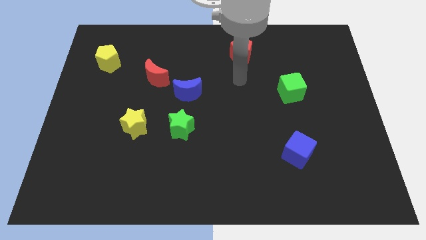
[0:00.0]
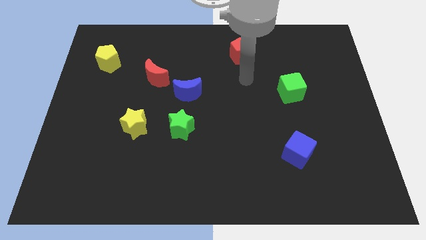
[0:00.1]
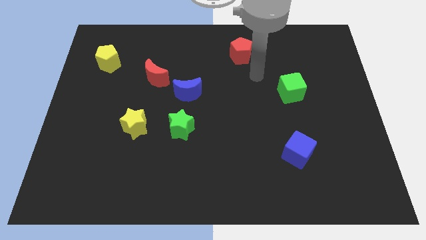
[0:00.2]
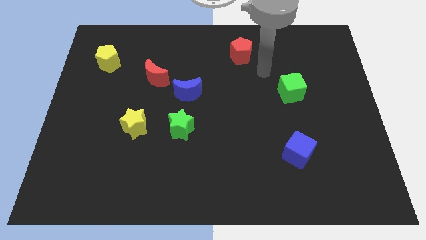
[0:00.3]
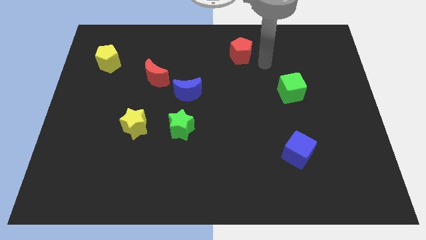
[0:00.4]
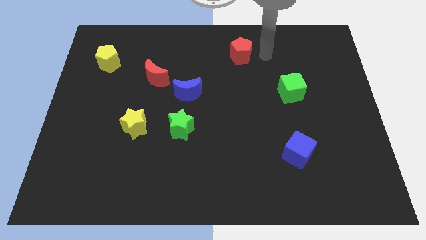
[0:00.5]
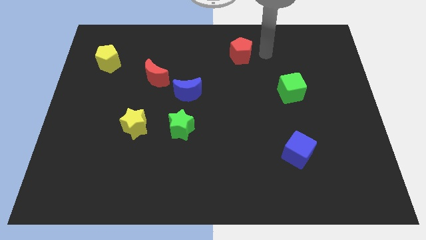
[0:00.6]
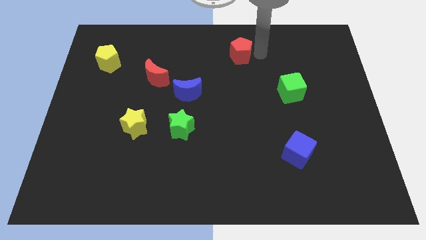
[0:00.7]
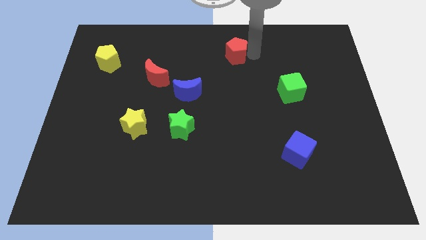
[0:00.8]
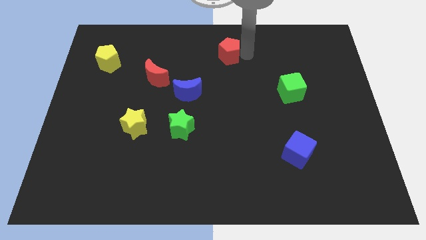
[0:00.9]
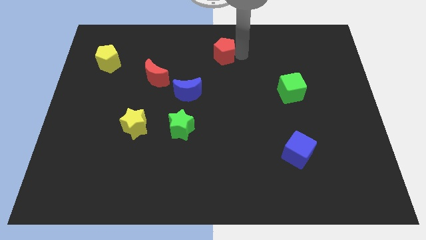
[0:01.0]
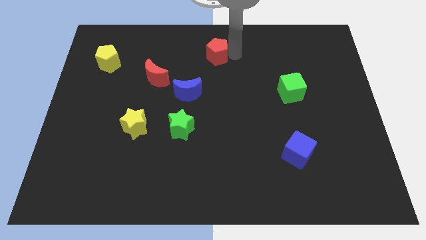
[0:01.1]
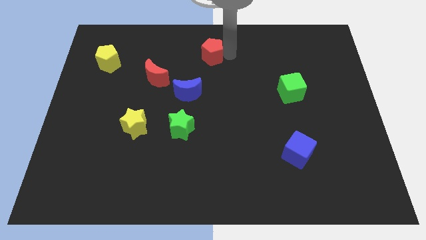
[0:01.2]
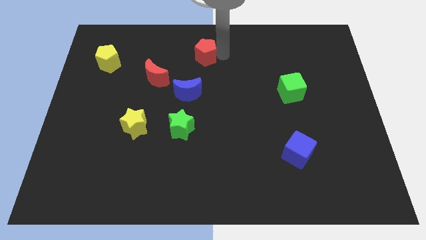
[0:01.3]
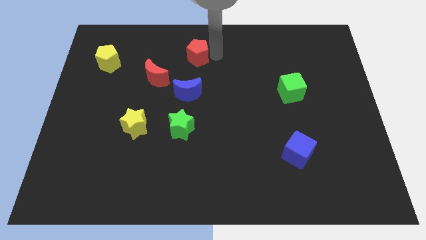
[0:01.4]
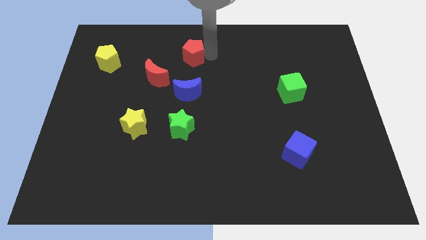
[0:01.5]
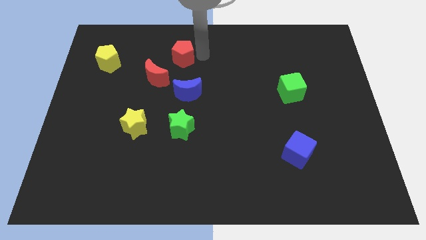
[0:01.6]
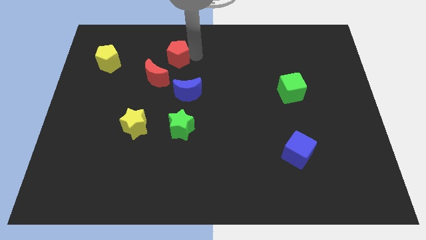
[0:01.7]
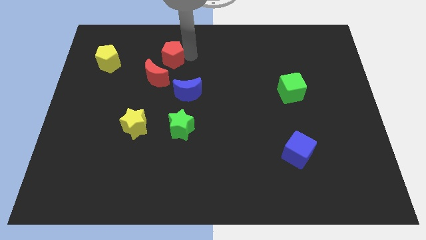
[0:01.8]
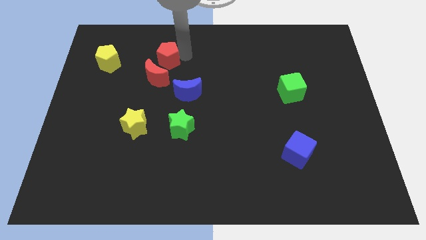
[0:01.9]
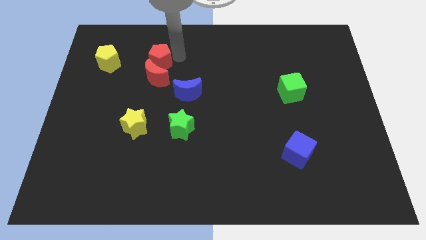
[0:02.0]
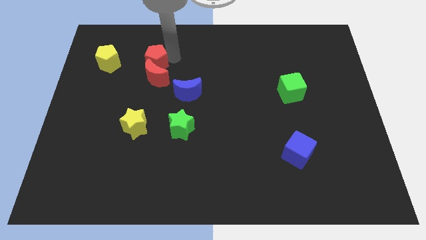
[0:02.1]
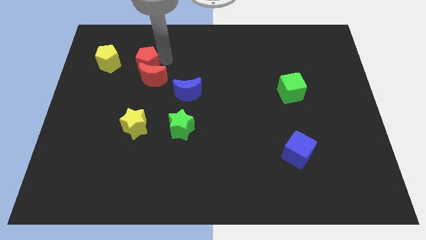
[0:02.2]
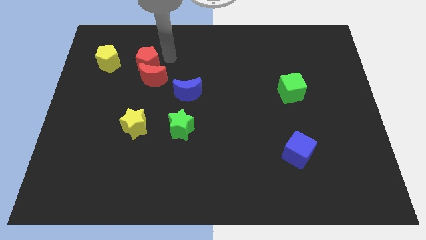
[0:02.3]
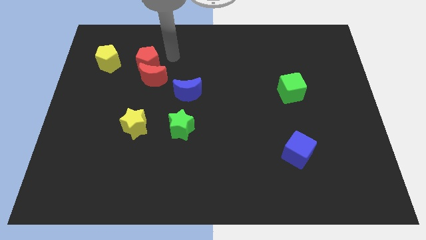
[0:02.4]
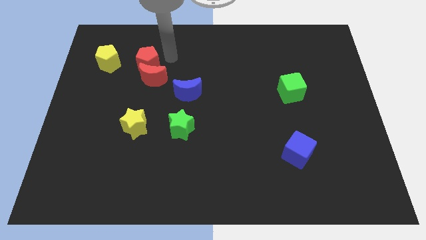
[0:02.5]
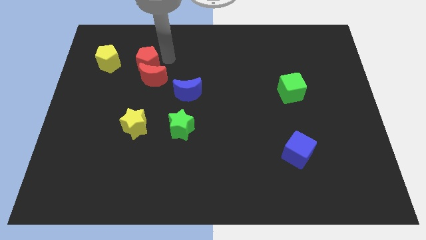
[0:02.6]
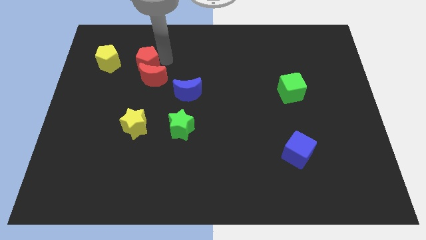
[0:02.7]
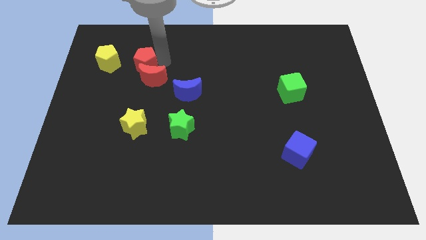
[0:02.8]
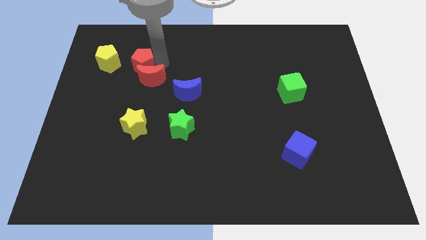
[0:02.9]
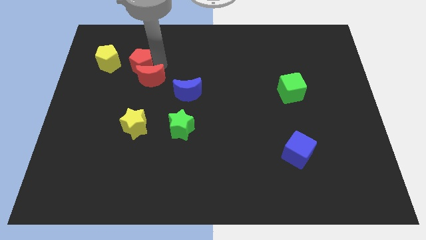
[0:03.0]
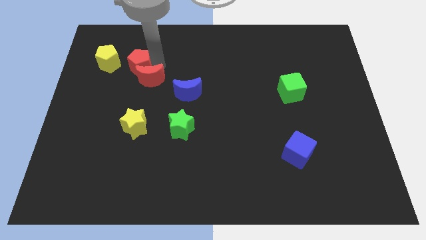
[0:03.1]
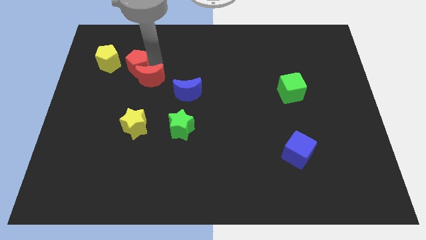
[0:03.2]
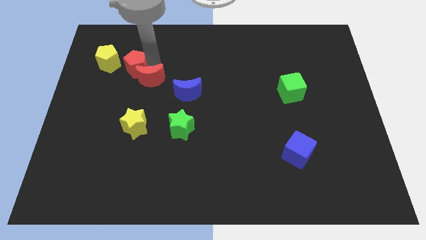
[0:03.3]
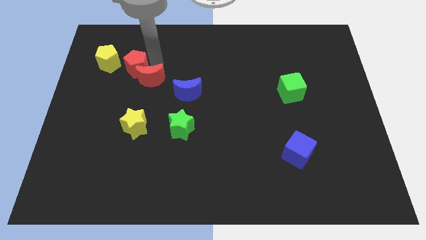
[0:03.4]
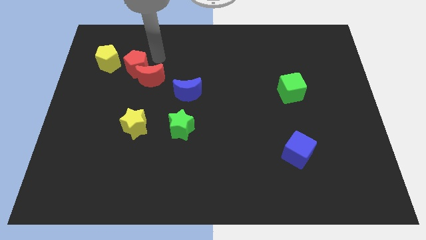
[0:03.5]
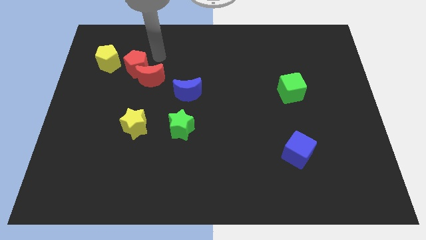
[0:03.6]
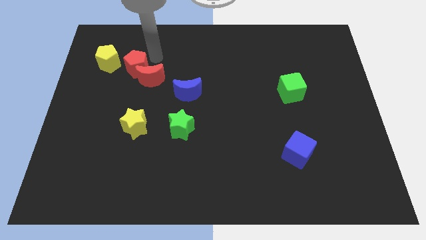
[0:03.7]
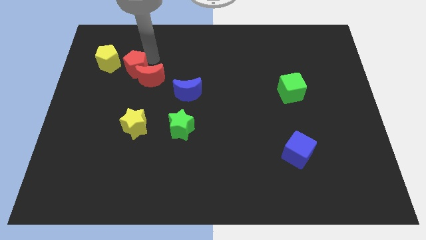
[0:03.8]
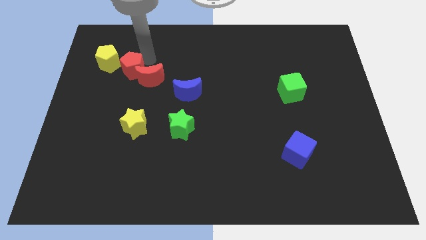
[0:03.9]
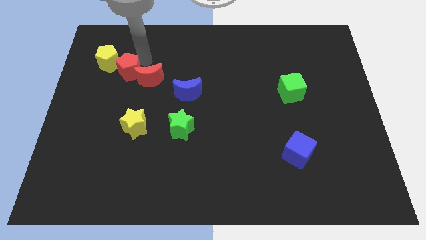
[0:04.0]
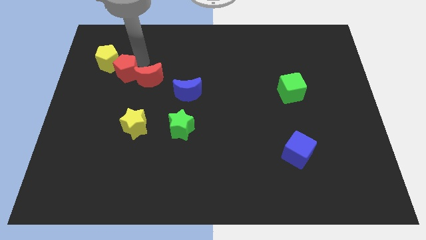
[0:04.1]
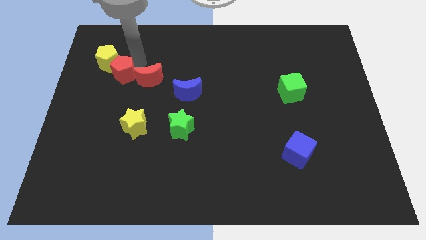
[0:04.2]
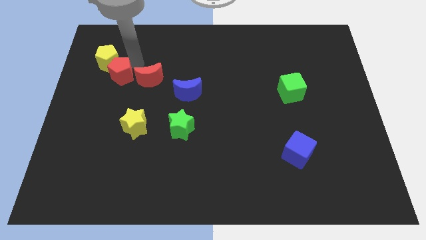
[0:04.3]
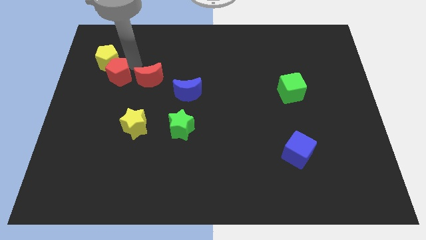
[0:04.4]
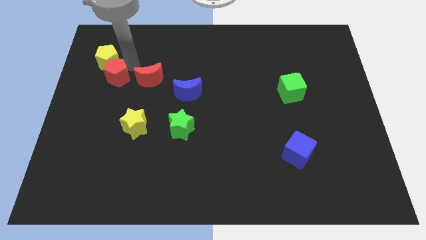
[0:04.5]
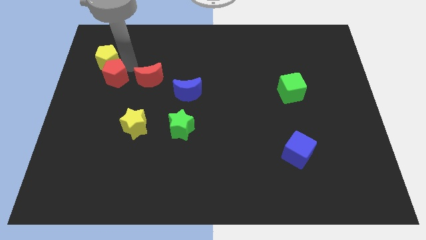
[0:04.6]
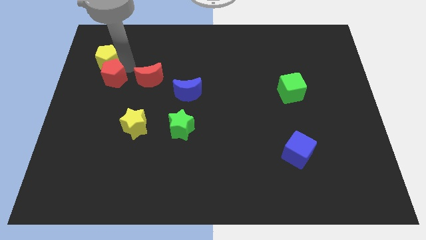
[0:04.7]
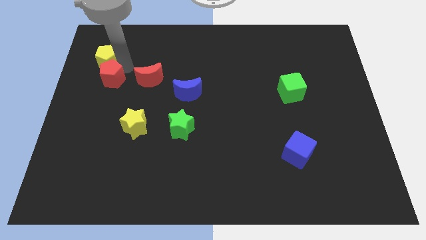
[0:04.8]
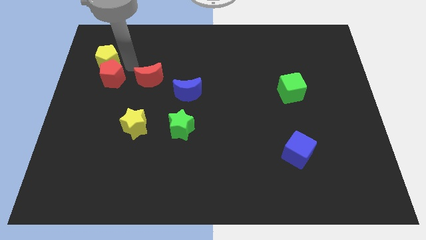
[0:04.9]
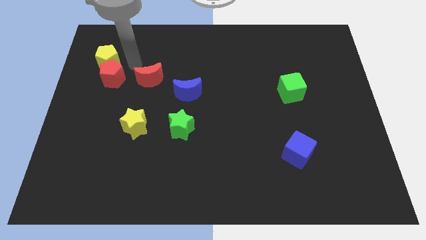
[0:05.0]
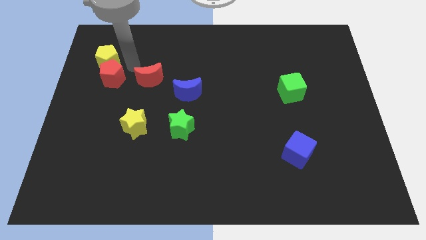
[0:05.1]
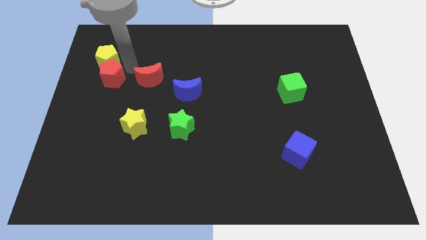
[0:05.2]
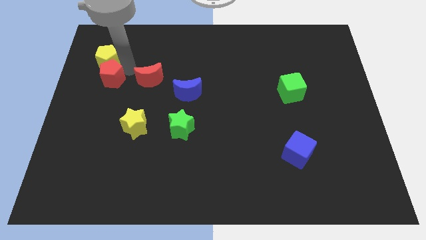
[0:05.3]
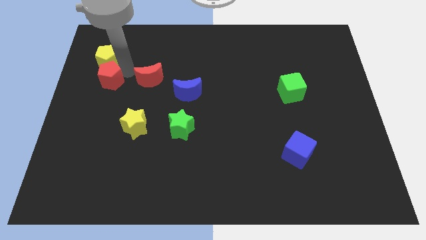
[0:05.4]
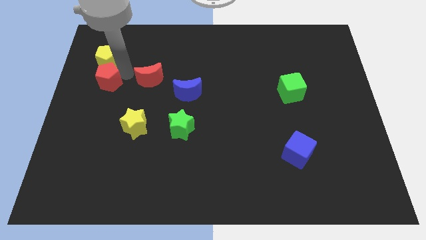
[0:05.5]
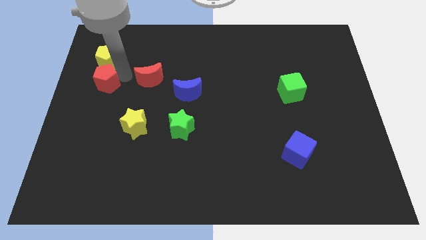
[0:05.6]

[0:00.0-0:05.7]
slide the red pentagon to the left side of the board
